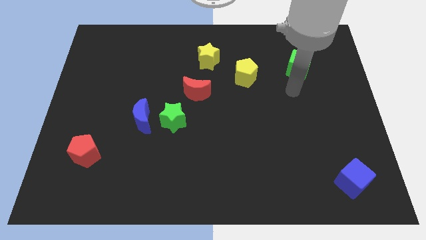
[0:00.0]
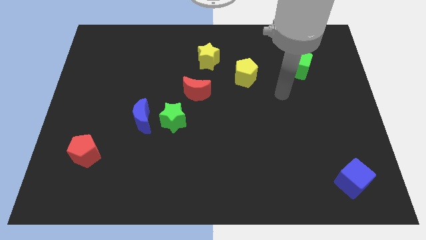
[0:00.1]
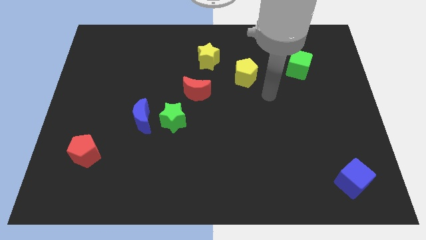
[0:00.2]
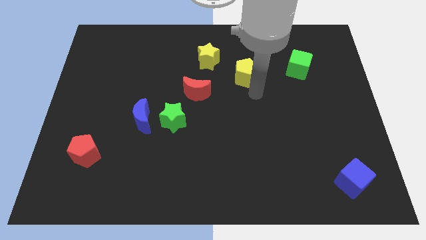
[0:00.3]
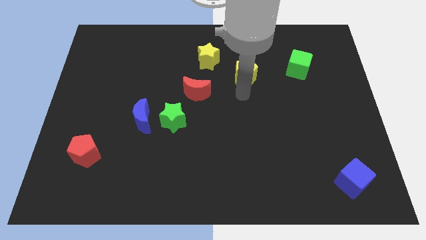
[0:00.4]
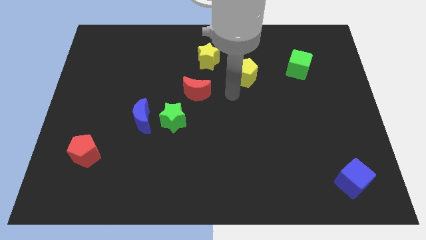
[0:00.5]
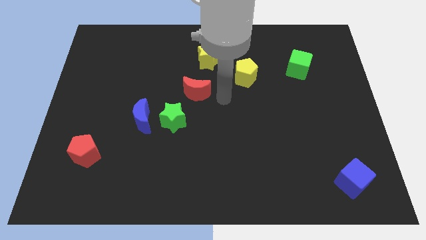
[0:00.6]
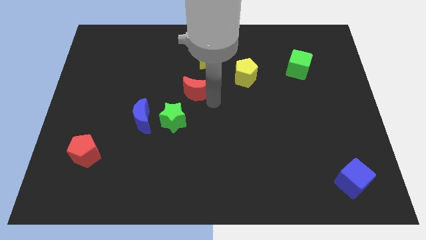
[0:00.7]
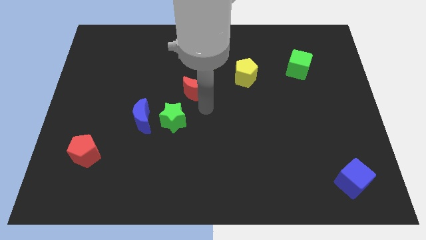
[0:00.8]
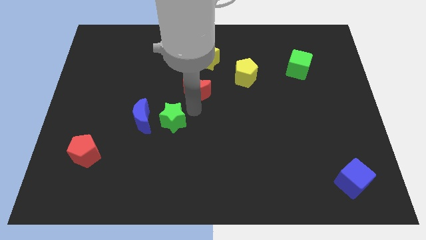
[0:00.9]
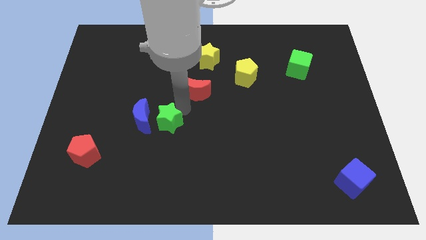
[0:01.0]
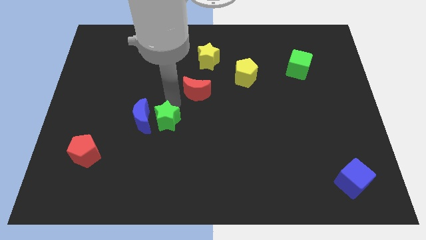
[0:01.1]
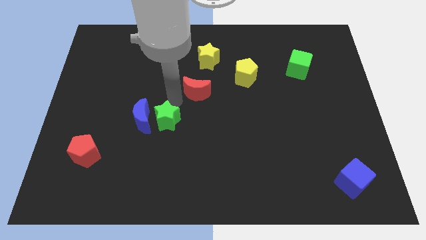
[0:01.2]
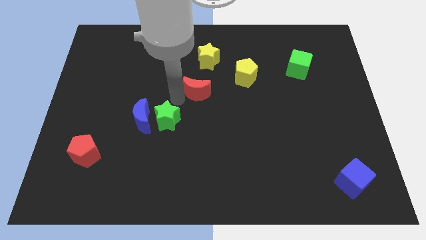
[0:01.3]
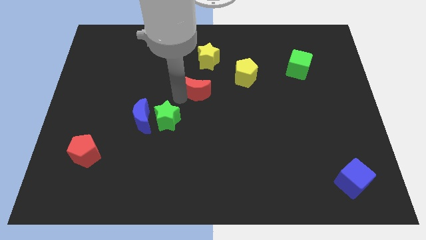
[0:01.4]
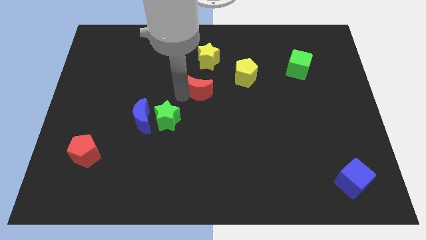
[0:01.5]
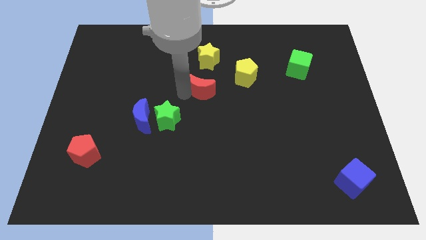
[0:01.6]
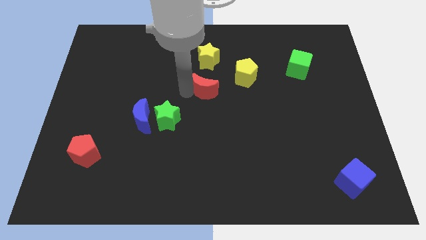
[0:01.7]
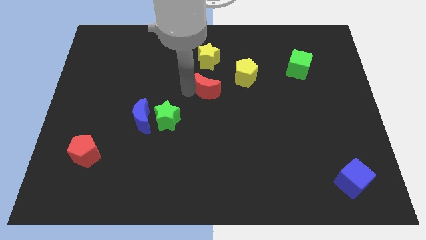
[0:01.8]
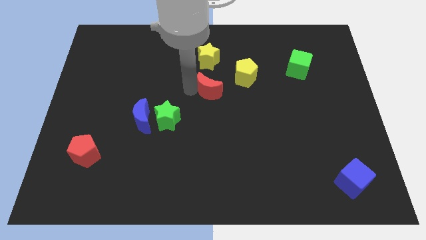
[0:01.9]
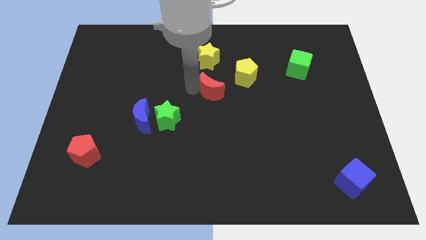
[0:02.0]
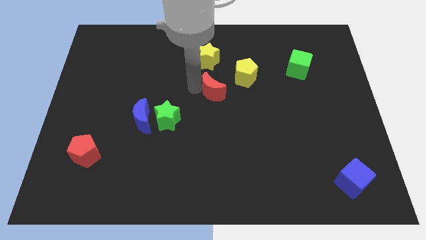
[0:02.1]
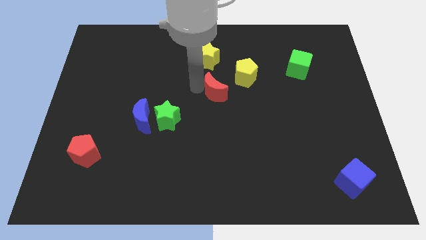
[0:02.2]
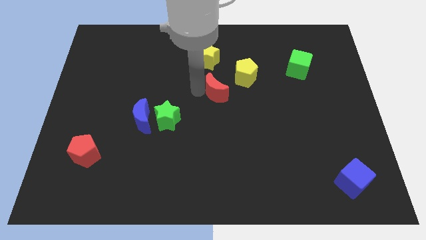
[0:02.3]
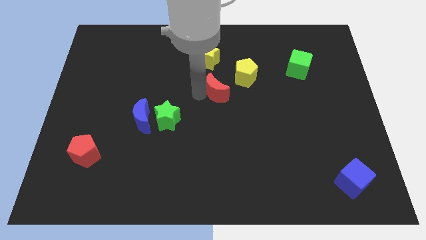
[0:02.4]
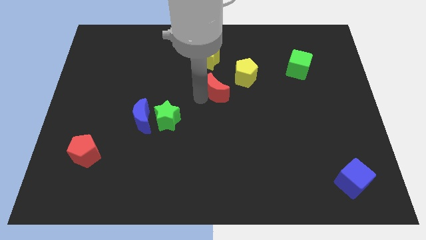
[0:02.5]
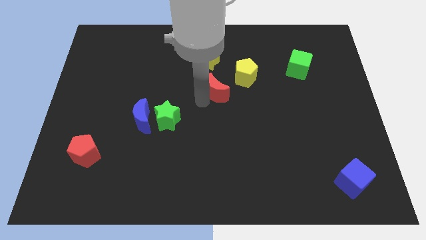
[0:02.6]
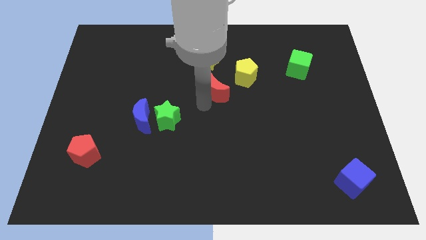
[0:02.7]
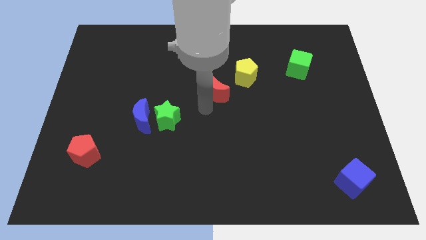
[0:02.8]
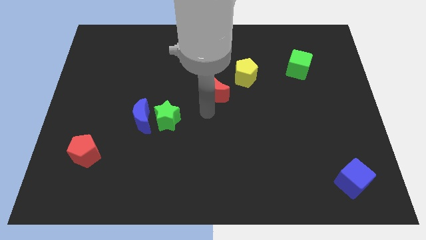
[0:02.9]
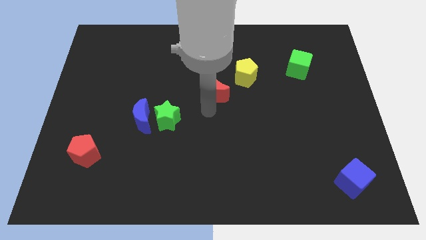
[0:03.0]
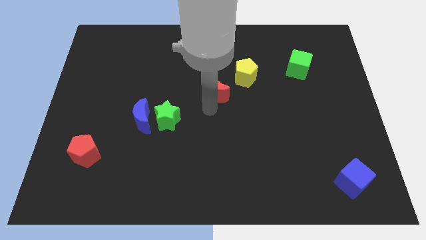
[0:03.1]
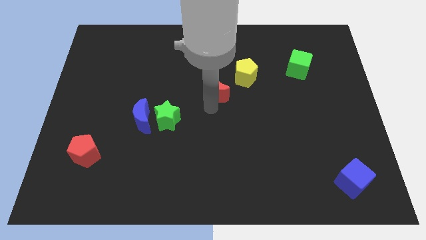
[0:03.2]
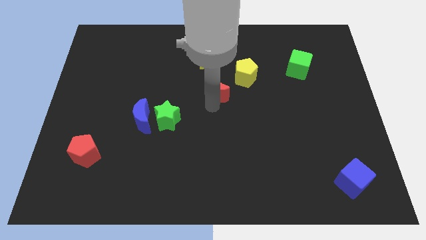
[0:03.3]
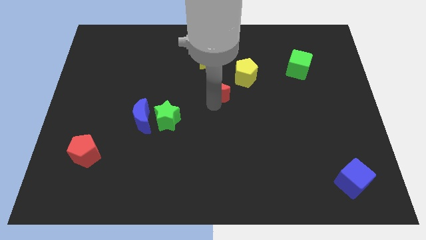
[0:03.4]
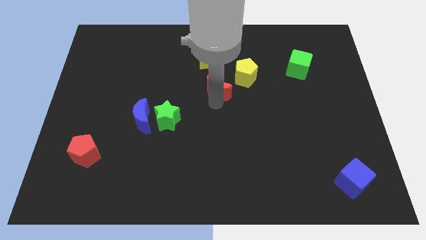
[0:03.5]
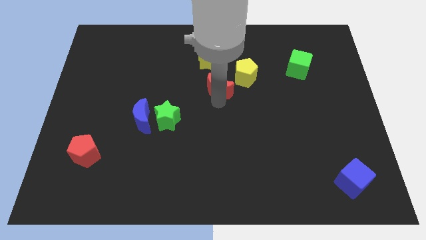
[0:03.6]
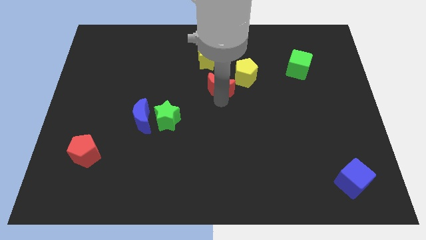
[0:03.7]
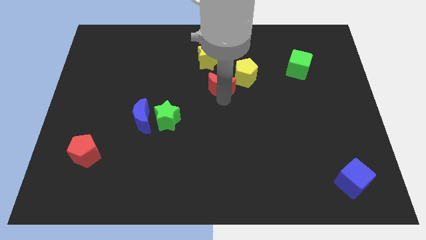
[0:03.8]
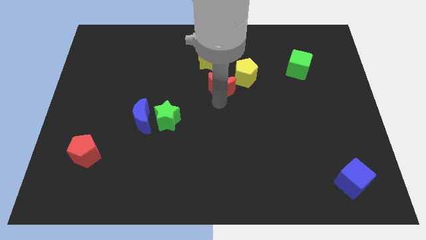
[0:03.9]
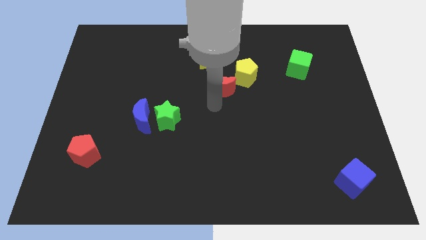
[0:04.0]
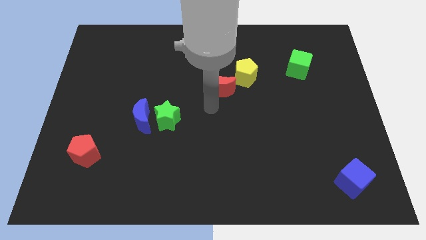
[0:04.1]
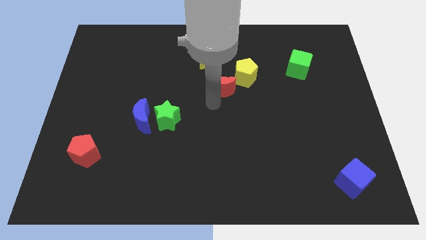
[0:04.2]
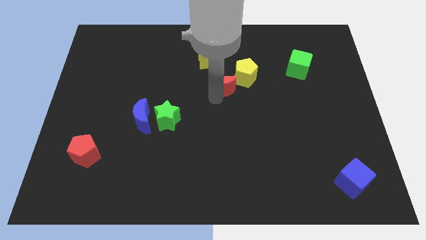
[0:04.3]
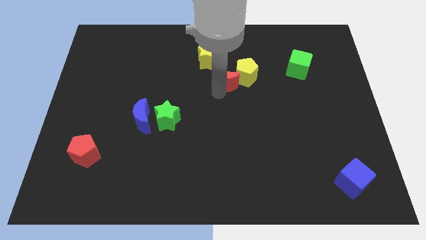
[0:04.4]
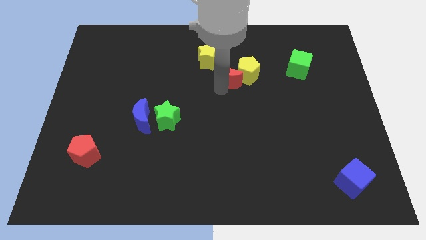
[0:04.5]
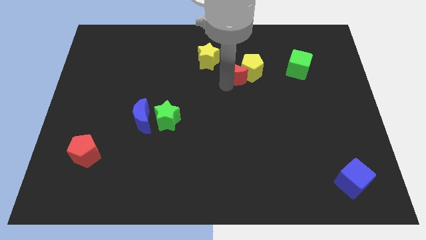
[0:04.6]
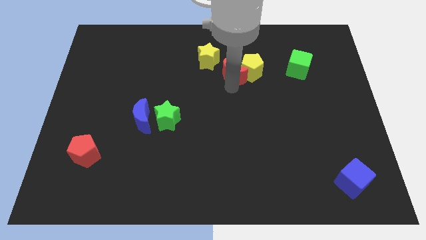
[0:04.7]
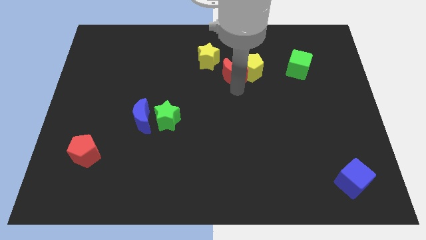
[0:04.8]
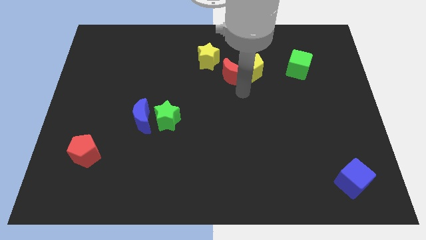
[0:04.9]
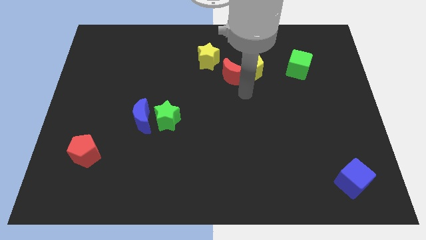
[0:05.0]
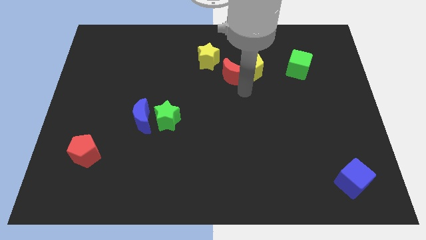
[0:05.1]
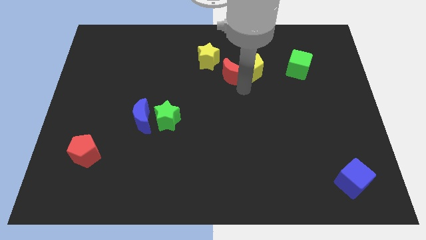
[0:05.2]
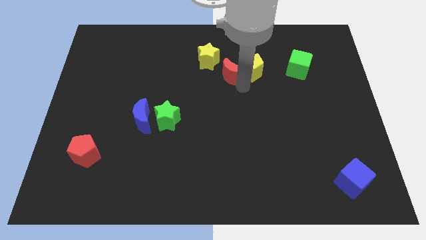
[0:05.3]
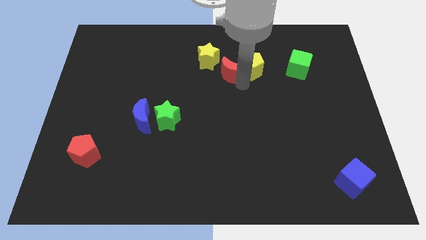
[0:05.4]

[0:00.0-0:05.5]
put the red moon just right of the yellow star

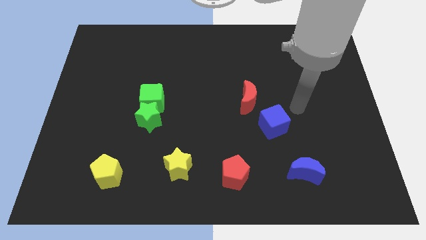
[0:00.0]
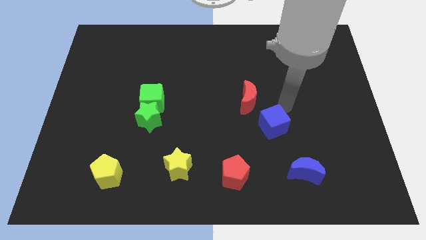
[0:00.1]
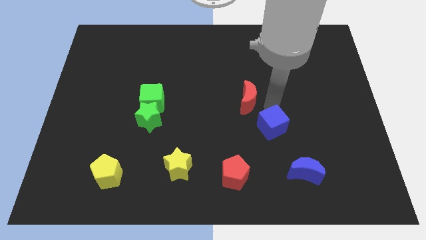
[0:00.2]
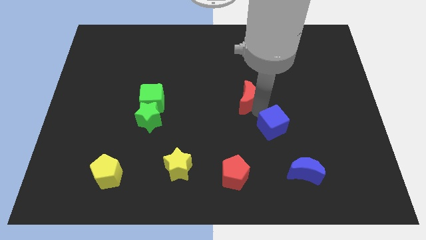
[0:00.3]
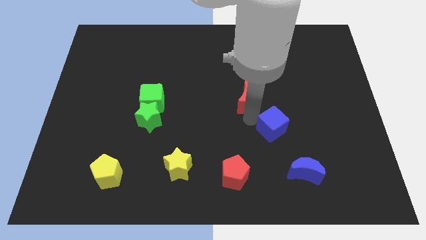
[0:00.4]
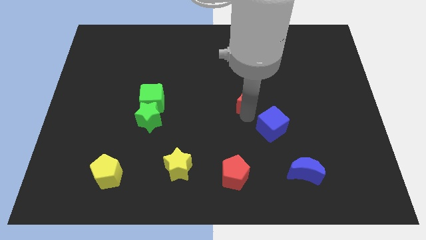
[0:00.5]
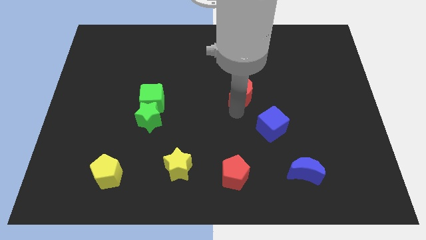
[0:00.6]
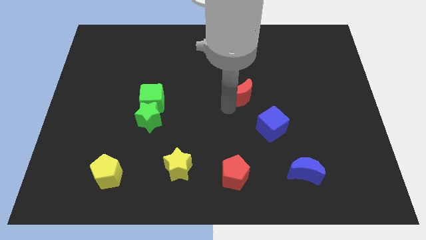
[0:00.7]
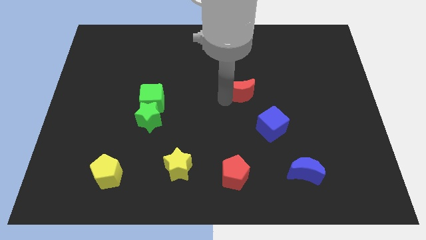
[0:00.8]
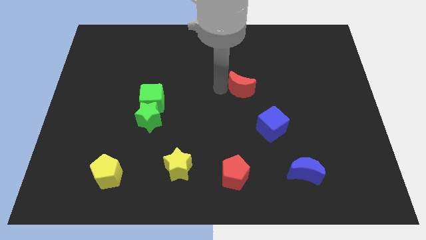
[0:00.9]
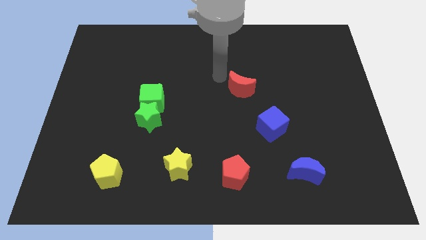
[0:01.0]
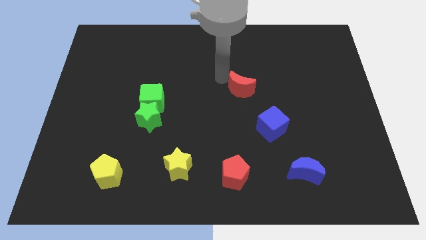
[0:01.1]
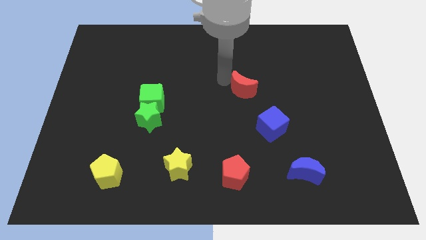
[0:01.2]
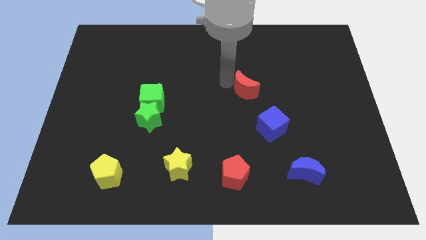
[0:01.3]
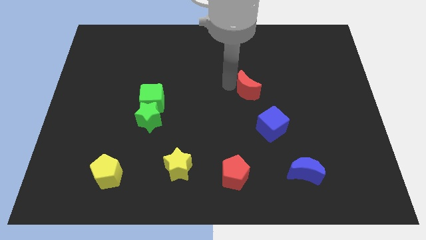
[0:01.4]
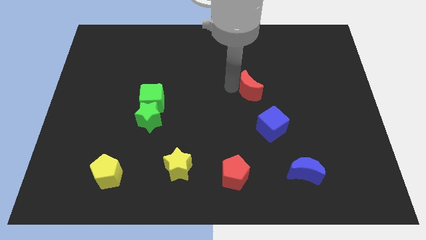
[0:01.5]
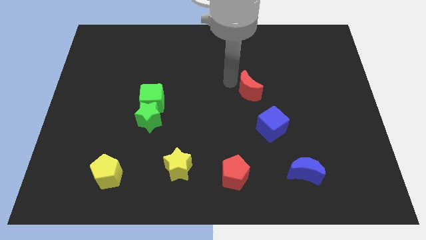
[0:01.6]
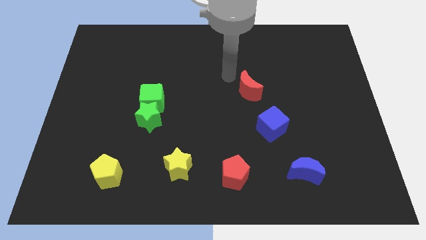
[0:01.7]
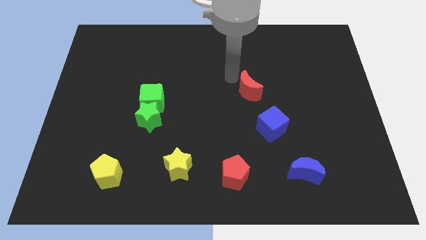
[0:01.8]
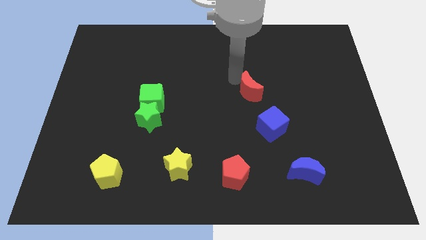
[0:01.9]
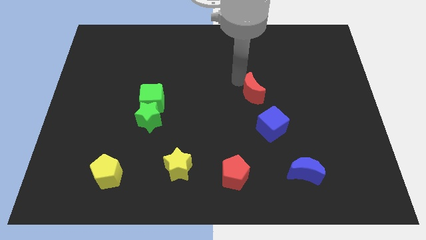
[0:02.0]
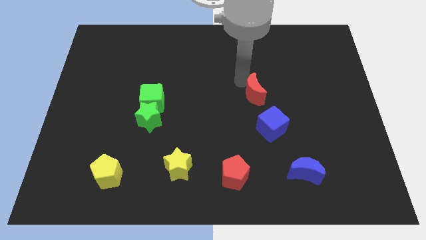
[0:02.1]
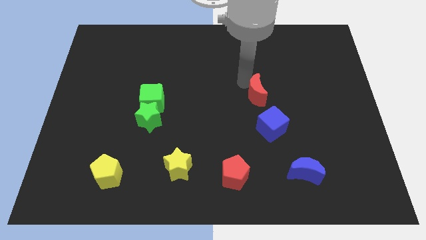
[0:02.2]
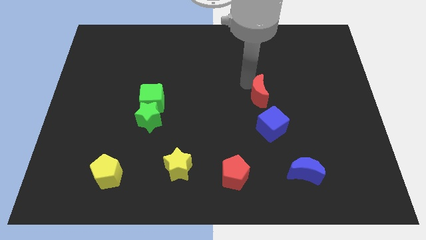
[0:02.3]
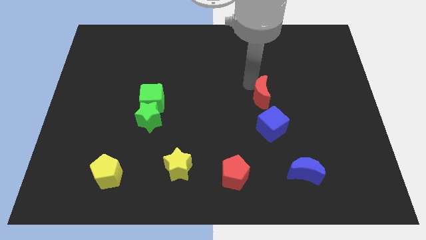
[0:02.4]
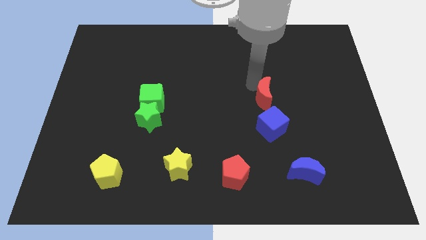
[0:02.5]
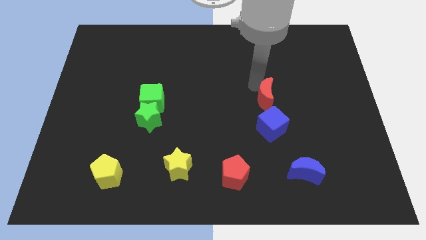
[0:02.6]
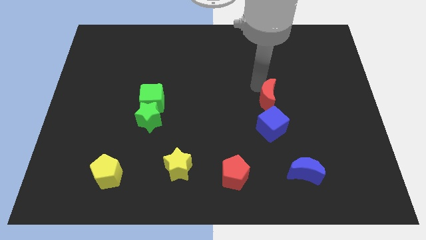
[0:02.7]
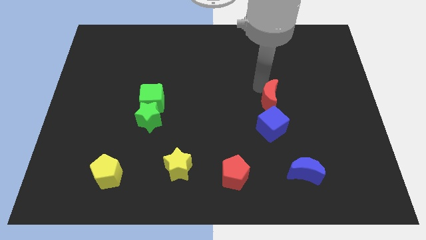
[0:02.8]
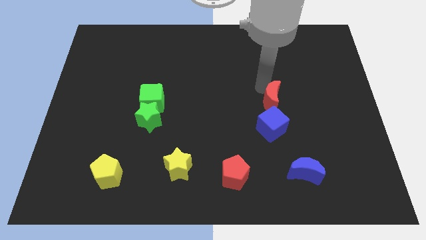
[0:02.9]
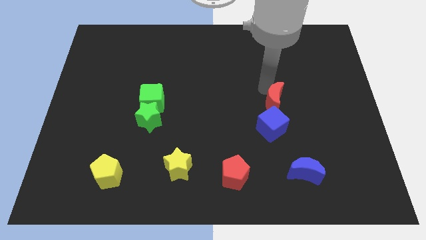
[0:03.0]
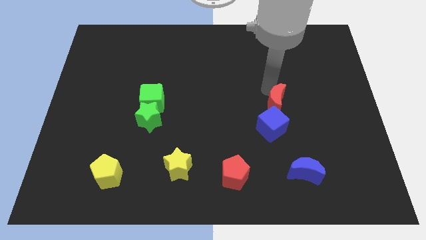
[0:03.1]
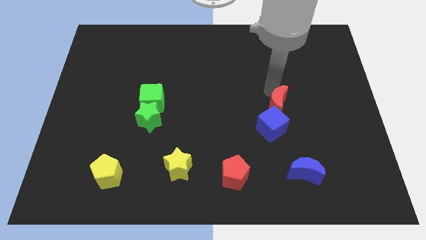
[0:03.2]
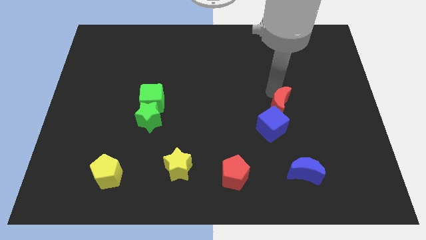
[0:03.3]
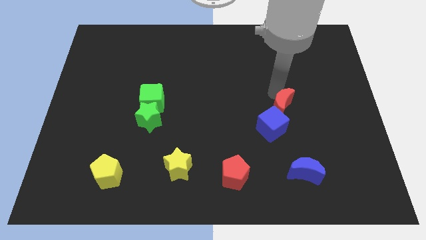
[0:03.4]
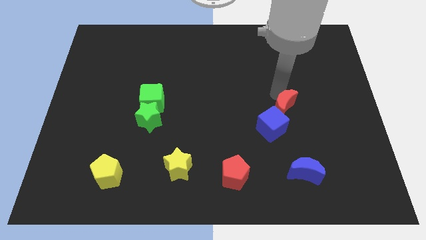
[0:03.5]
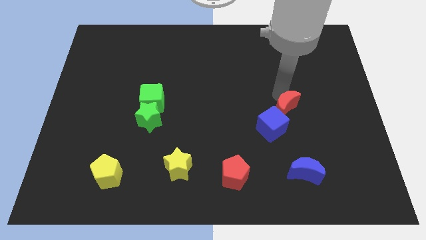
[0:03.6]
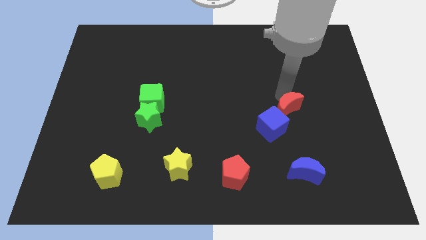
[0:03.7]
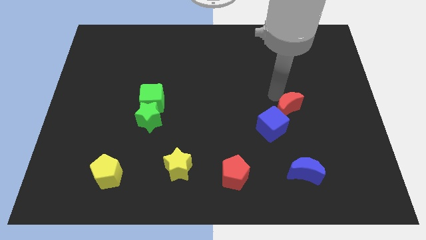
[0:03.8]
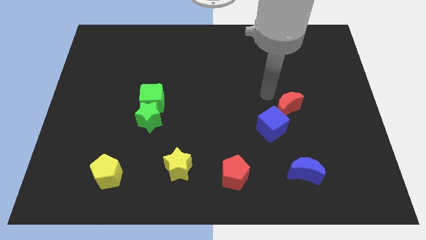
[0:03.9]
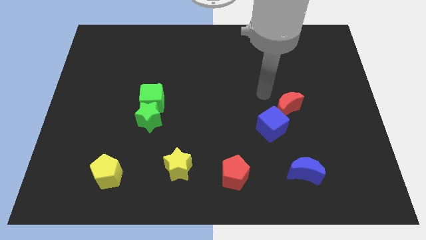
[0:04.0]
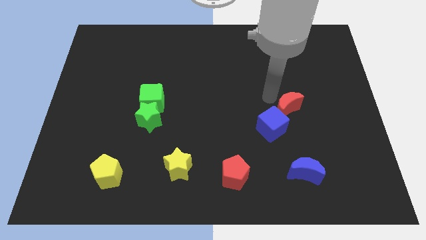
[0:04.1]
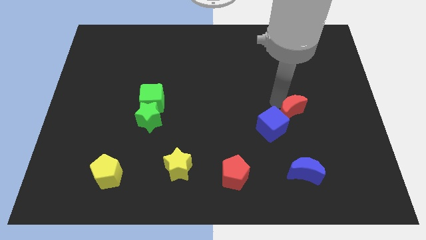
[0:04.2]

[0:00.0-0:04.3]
put the red moon to the right side of the blue cube
